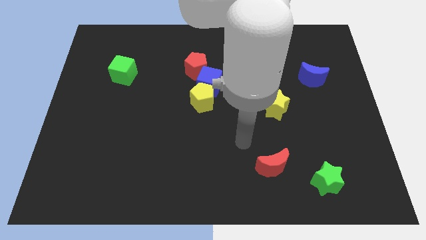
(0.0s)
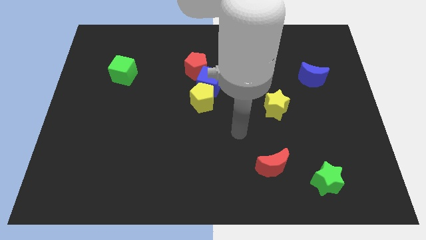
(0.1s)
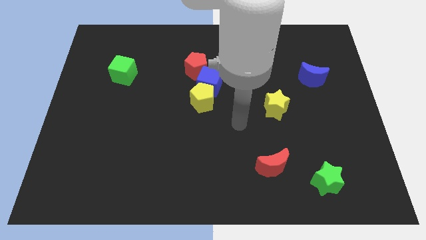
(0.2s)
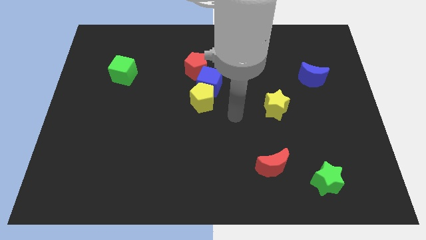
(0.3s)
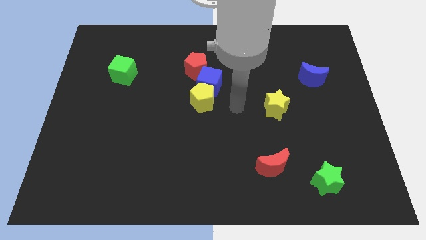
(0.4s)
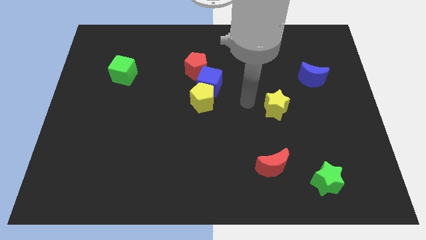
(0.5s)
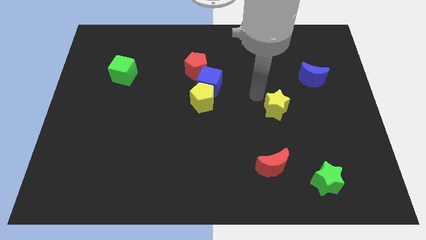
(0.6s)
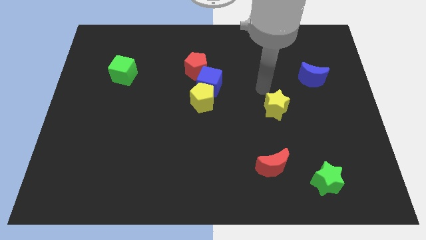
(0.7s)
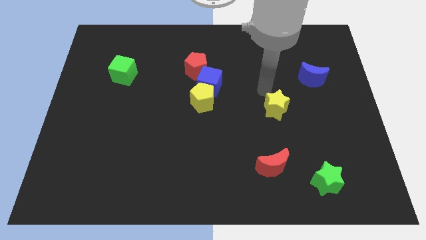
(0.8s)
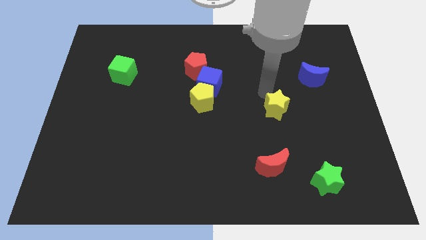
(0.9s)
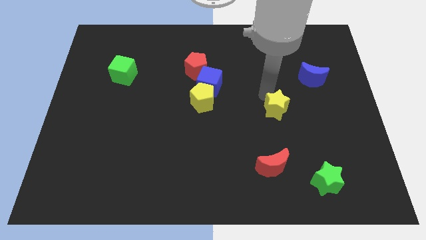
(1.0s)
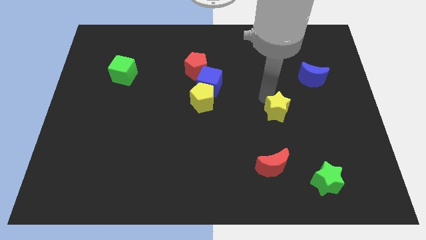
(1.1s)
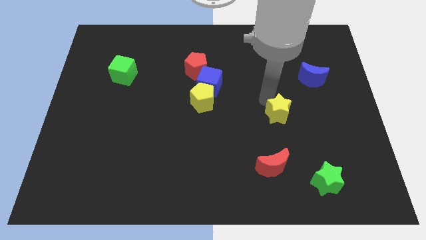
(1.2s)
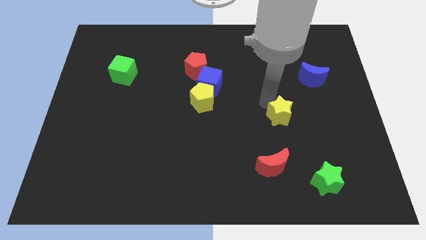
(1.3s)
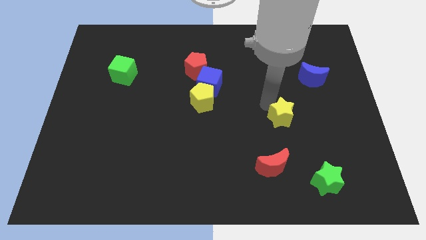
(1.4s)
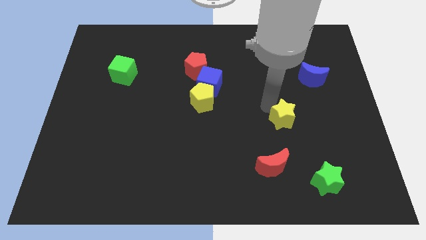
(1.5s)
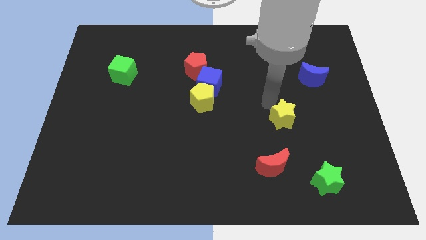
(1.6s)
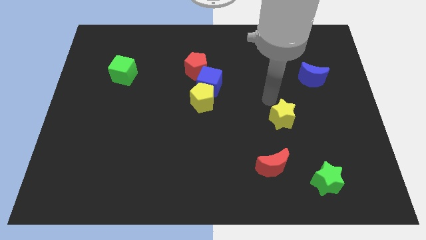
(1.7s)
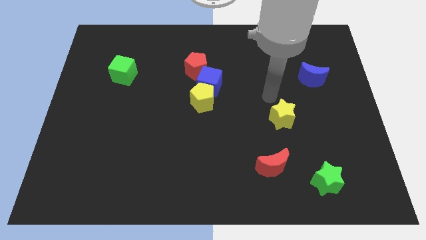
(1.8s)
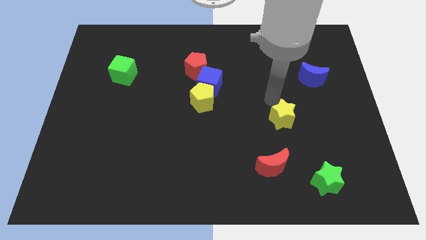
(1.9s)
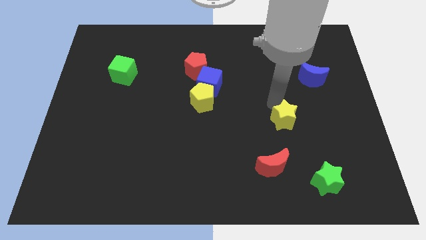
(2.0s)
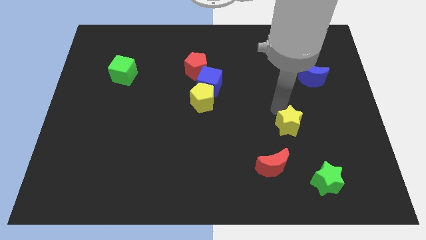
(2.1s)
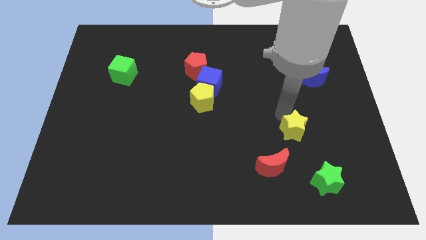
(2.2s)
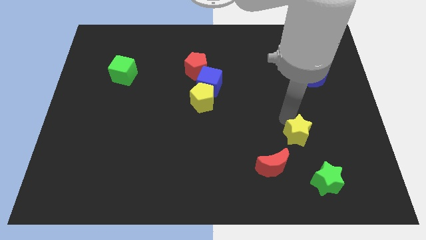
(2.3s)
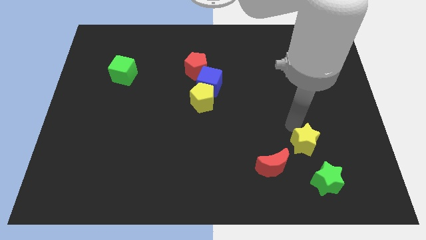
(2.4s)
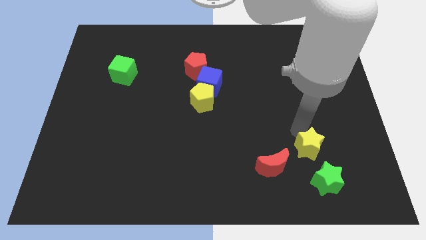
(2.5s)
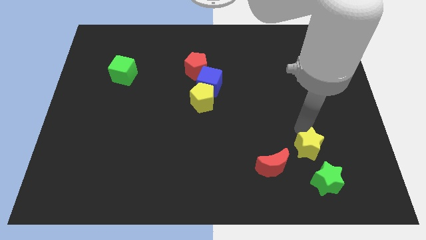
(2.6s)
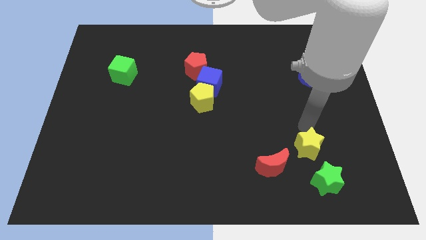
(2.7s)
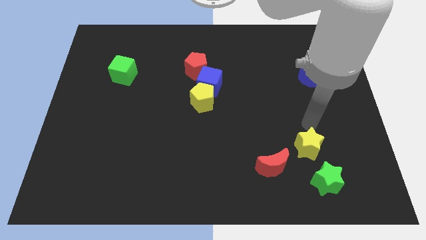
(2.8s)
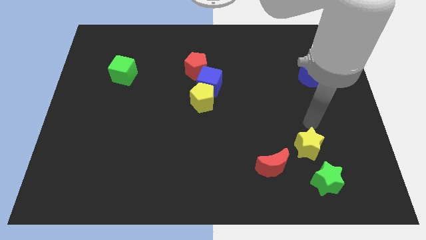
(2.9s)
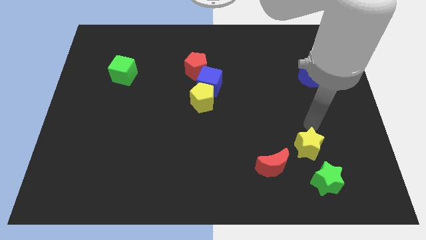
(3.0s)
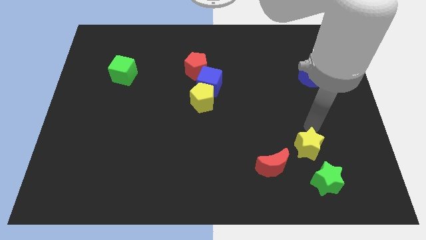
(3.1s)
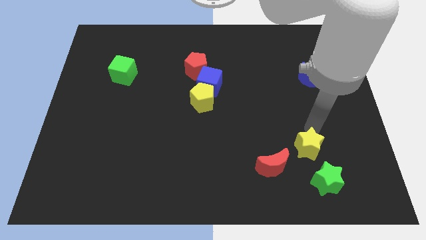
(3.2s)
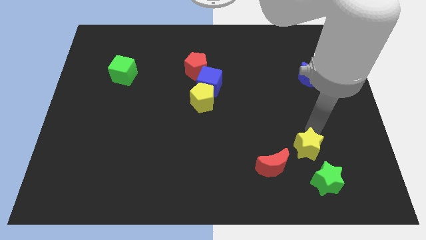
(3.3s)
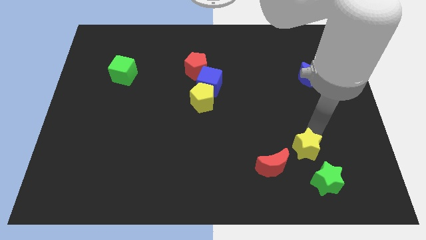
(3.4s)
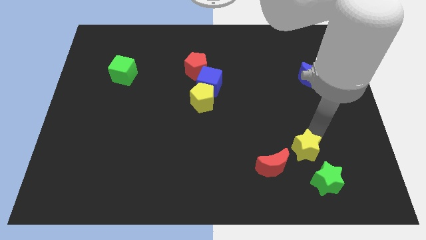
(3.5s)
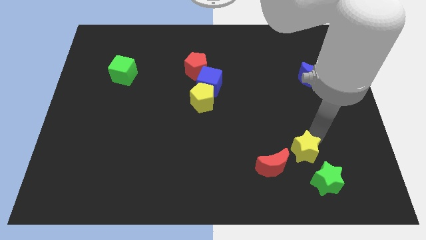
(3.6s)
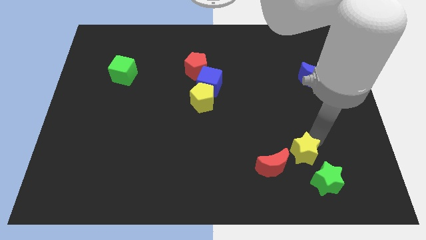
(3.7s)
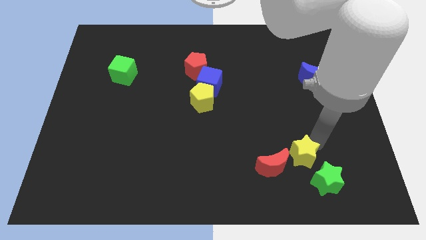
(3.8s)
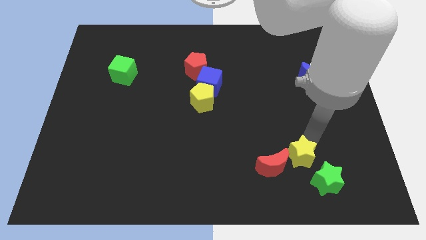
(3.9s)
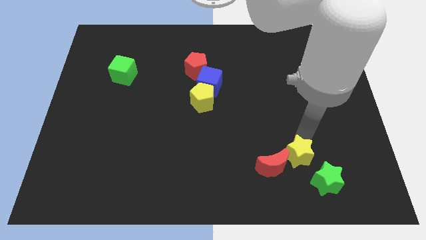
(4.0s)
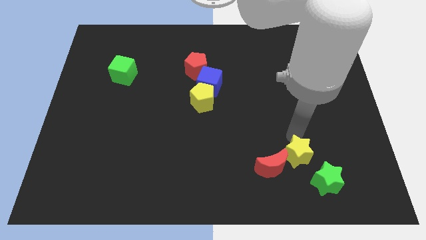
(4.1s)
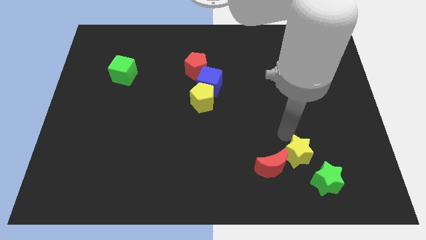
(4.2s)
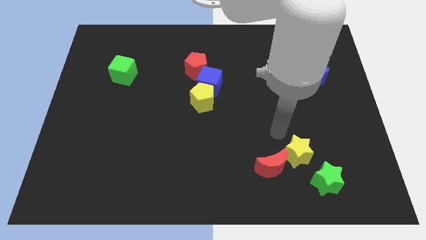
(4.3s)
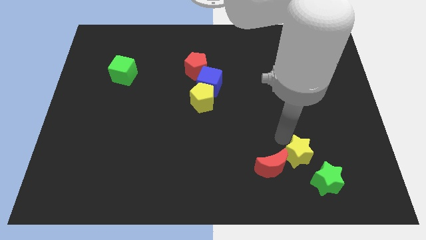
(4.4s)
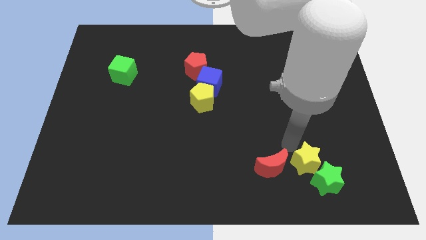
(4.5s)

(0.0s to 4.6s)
slide the yellow star to the green star

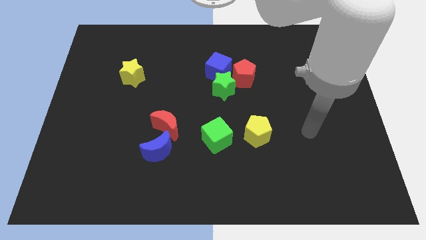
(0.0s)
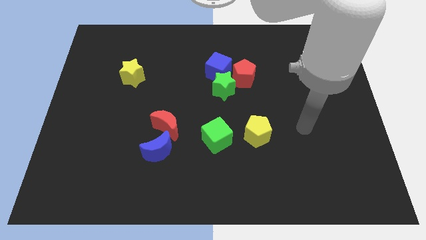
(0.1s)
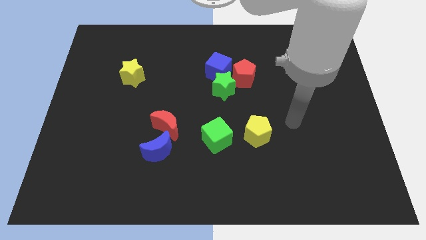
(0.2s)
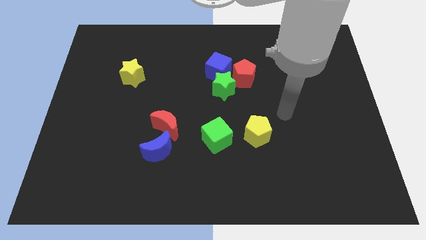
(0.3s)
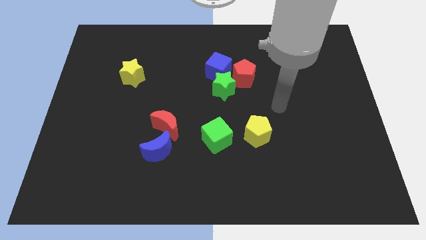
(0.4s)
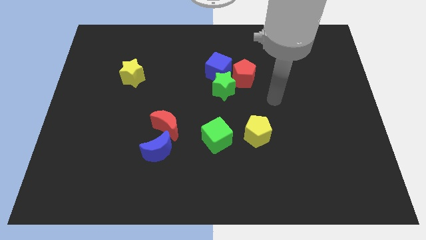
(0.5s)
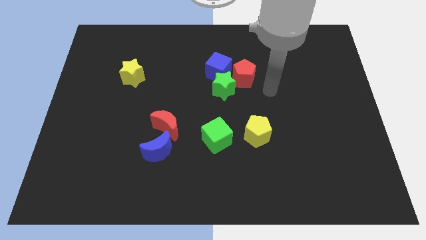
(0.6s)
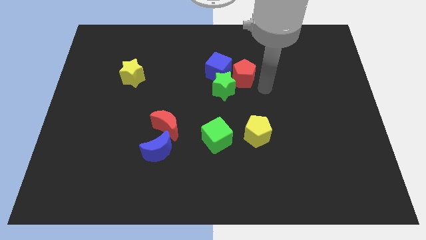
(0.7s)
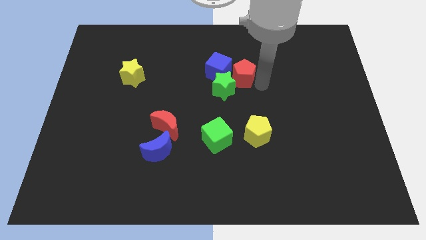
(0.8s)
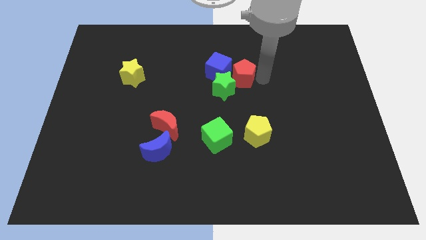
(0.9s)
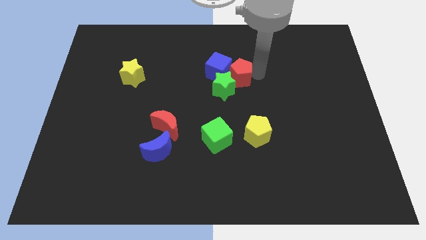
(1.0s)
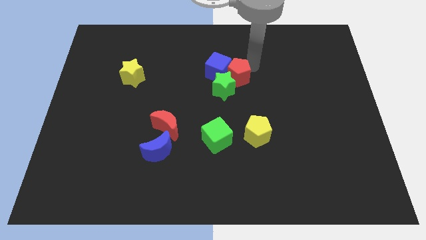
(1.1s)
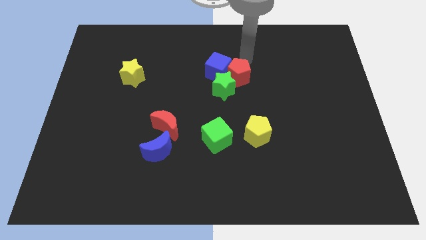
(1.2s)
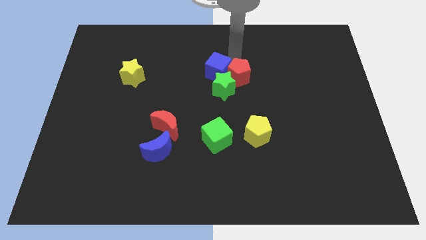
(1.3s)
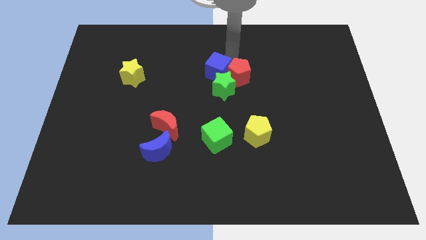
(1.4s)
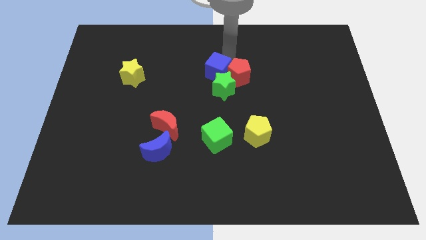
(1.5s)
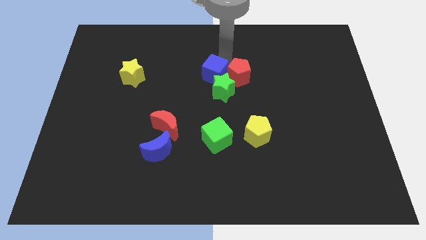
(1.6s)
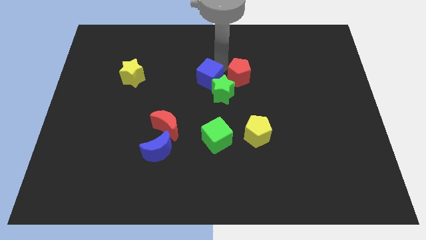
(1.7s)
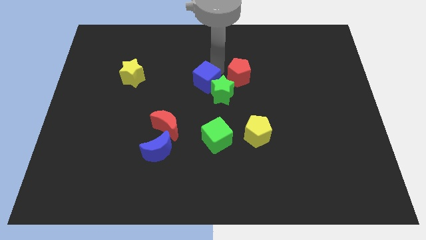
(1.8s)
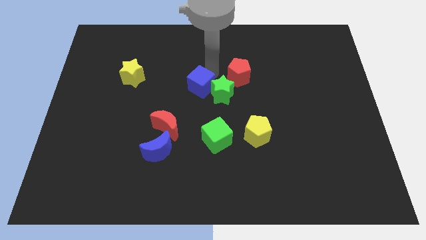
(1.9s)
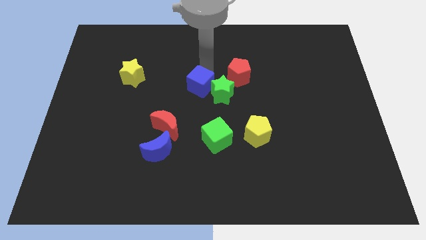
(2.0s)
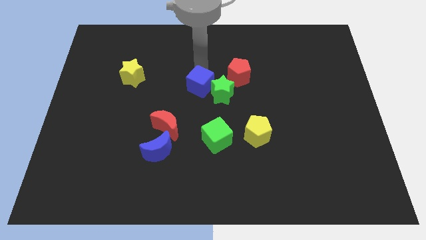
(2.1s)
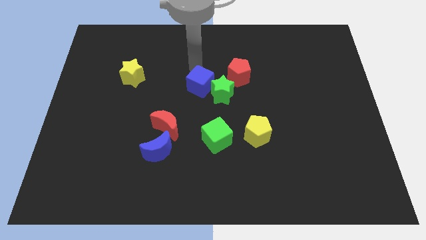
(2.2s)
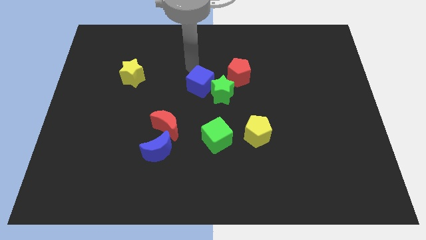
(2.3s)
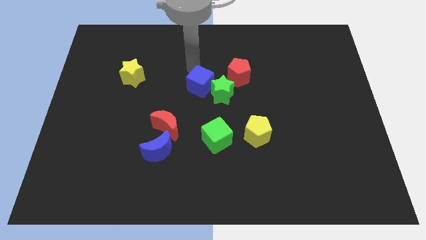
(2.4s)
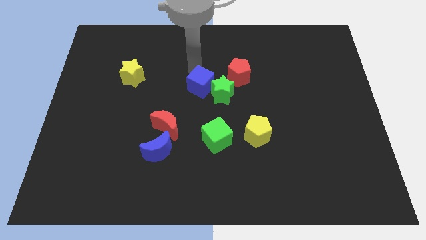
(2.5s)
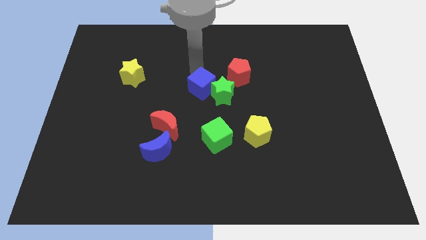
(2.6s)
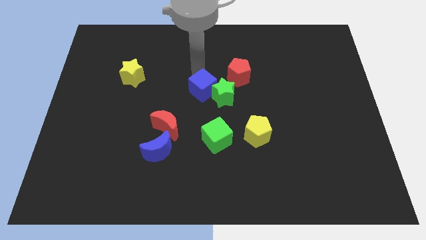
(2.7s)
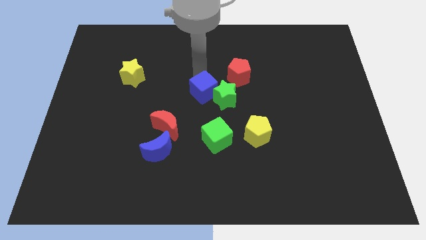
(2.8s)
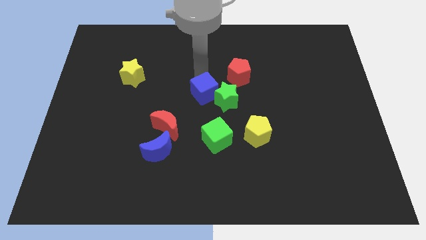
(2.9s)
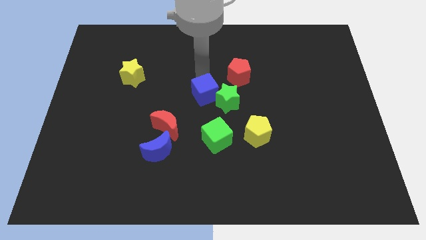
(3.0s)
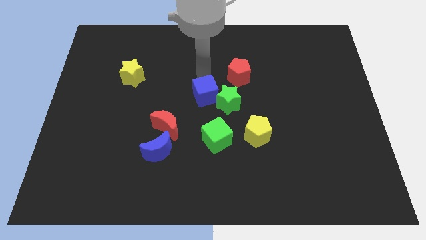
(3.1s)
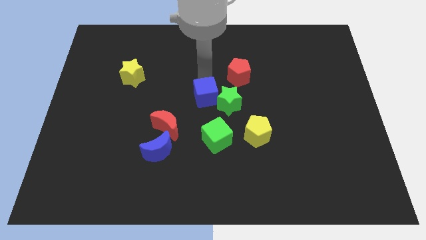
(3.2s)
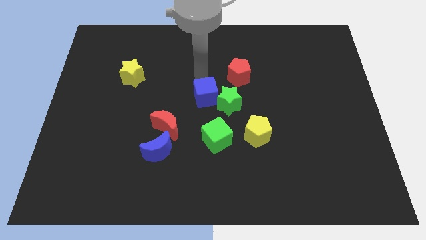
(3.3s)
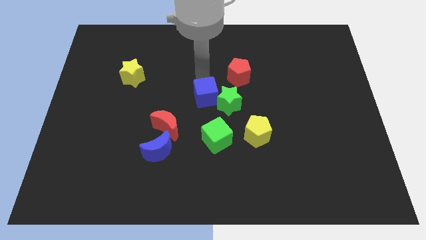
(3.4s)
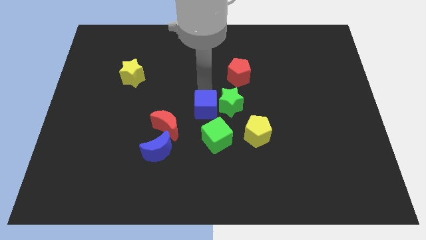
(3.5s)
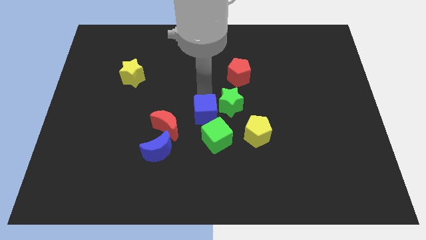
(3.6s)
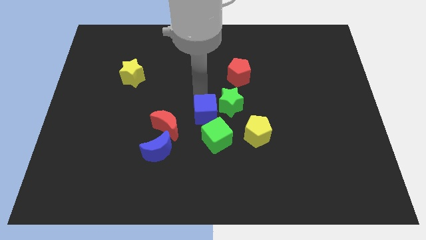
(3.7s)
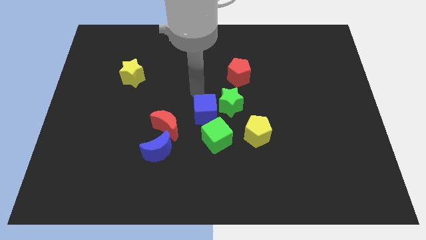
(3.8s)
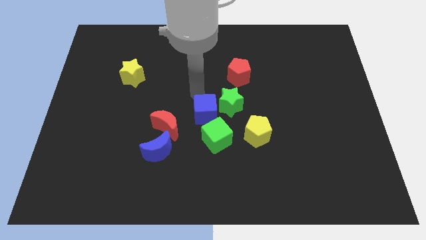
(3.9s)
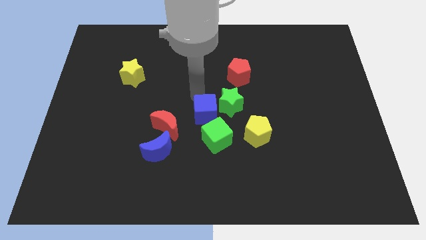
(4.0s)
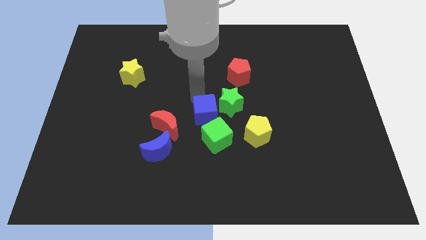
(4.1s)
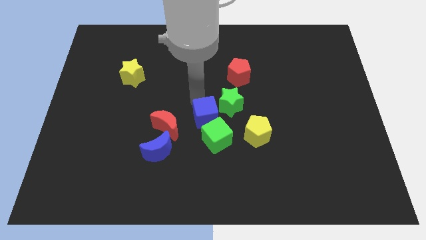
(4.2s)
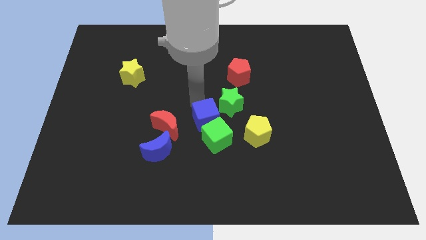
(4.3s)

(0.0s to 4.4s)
push the blue cube next to the green cube
